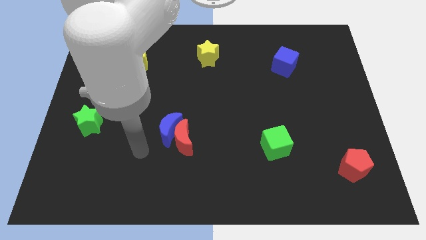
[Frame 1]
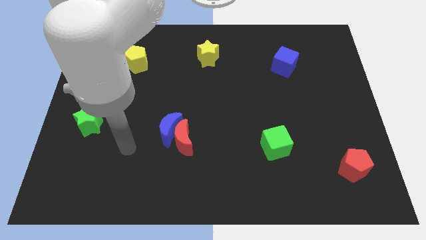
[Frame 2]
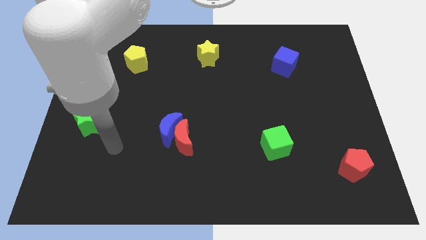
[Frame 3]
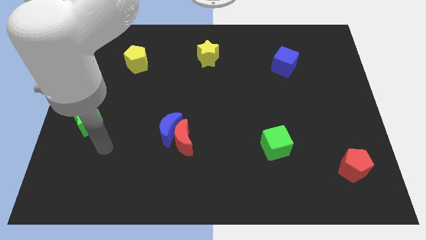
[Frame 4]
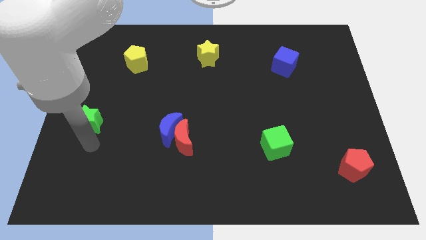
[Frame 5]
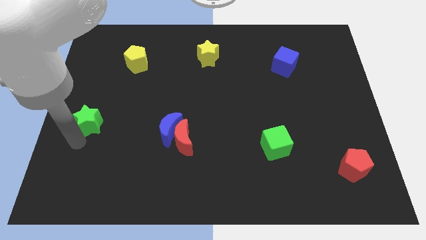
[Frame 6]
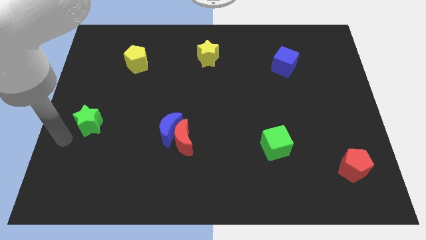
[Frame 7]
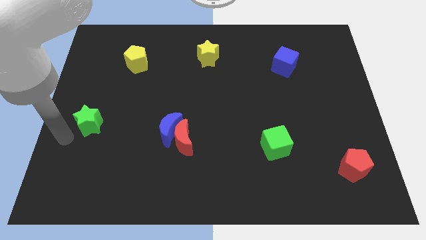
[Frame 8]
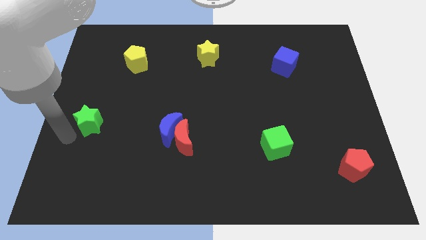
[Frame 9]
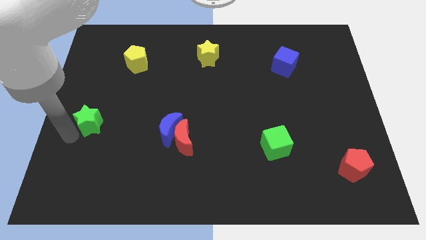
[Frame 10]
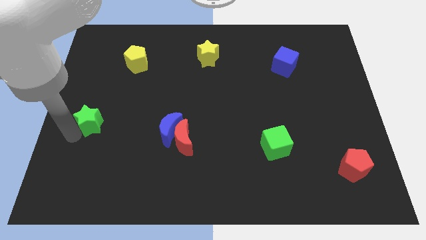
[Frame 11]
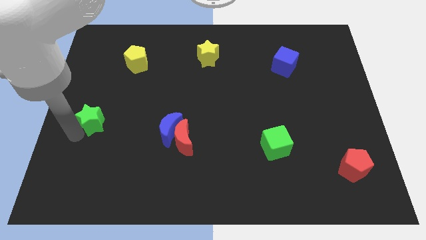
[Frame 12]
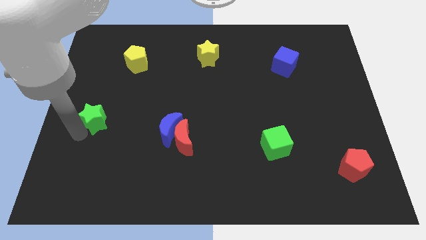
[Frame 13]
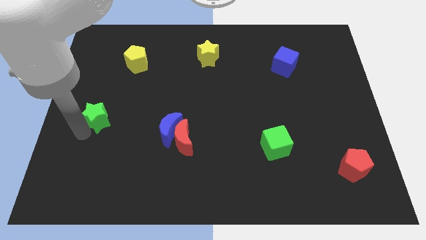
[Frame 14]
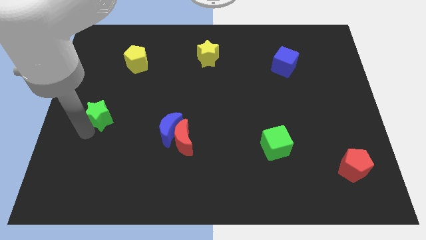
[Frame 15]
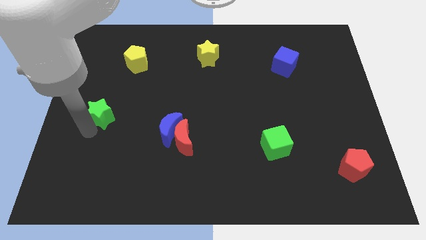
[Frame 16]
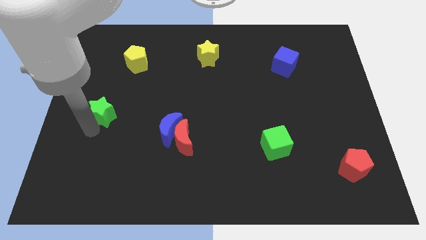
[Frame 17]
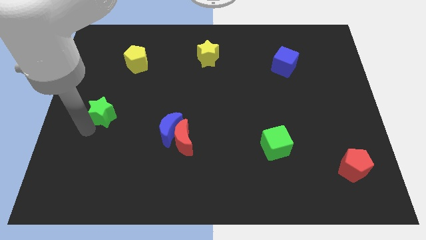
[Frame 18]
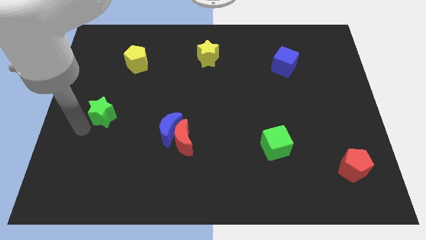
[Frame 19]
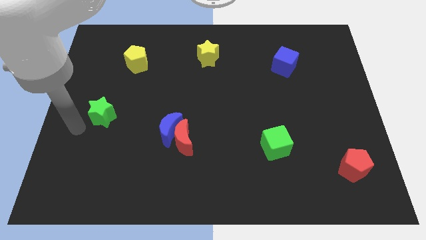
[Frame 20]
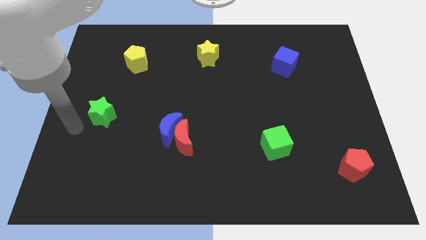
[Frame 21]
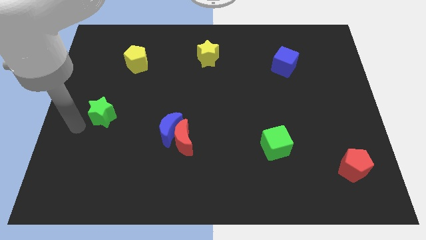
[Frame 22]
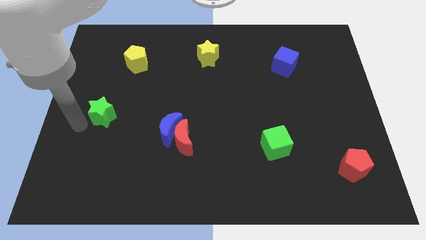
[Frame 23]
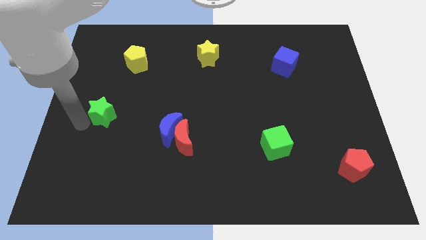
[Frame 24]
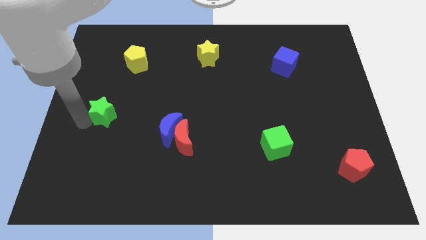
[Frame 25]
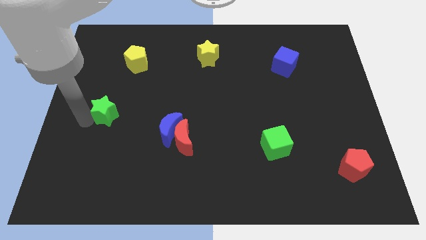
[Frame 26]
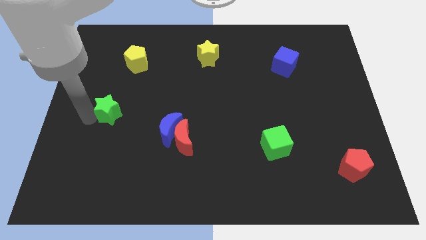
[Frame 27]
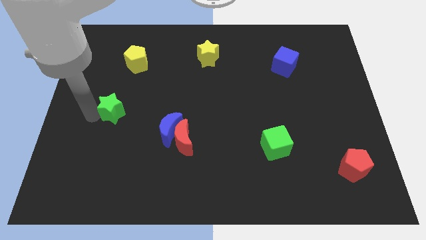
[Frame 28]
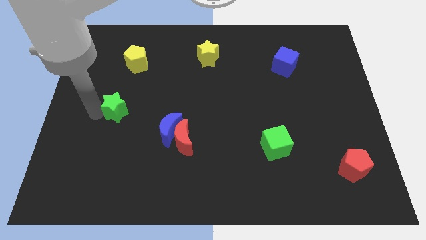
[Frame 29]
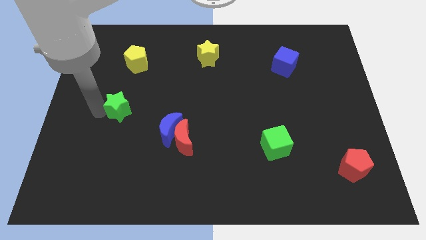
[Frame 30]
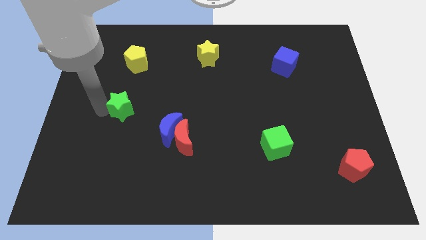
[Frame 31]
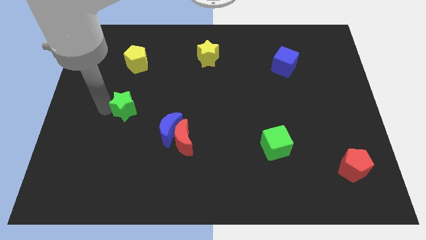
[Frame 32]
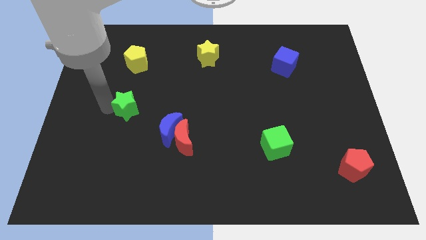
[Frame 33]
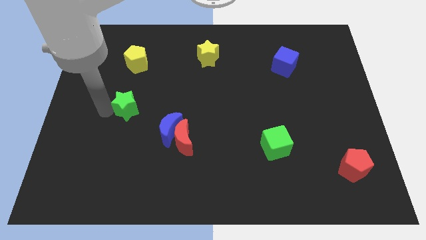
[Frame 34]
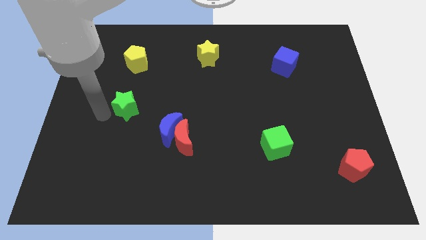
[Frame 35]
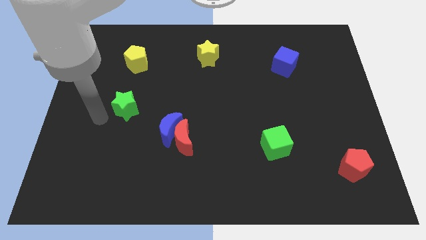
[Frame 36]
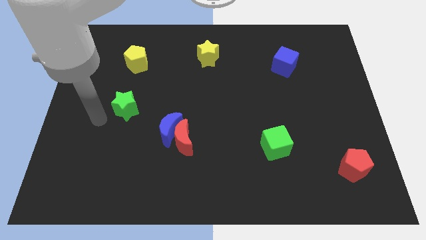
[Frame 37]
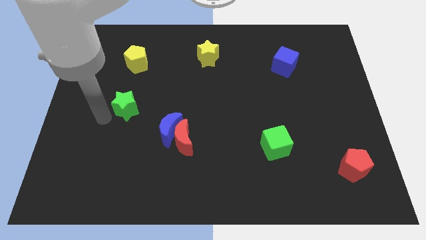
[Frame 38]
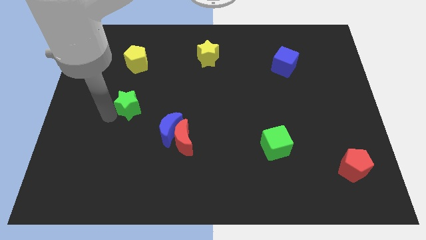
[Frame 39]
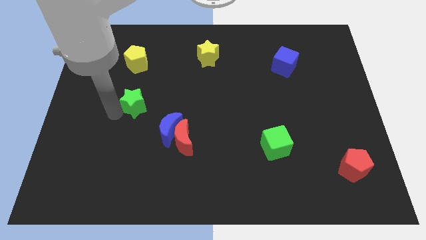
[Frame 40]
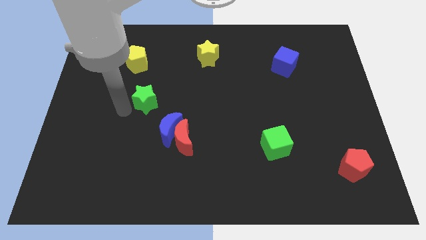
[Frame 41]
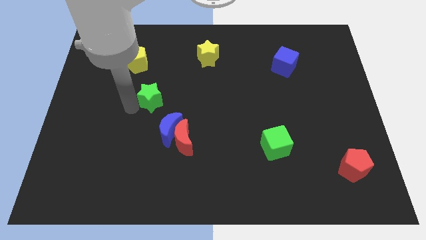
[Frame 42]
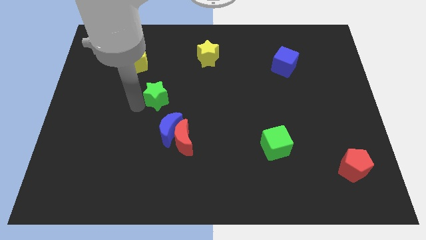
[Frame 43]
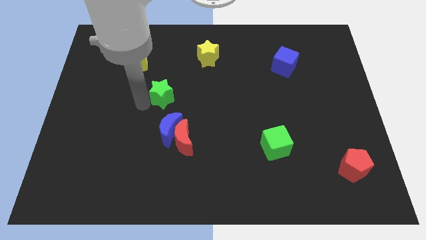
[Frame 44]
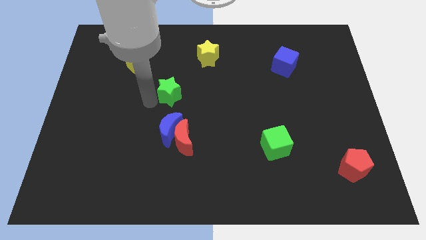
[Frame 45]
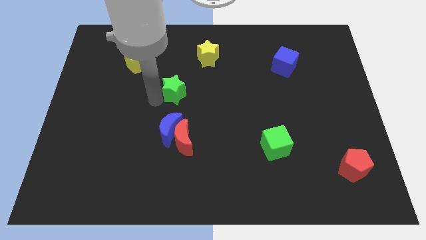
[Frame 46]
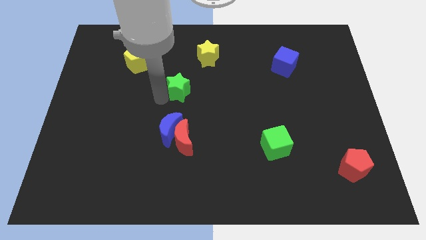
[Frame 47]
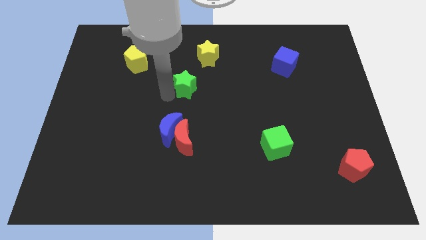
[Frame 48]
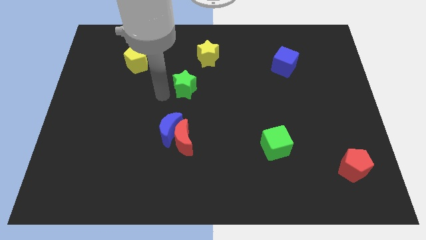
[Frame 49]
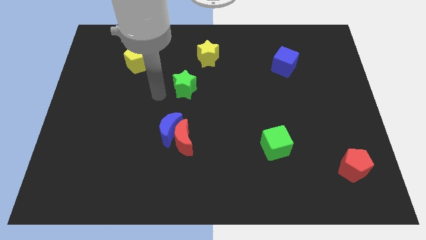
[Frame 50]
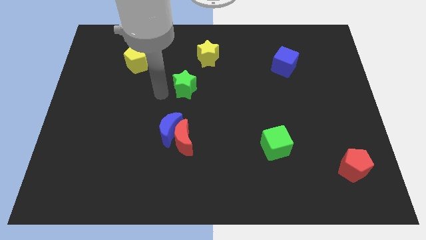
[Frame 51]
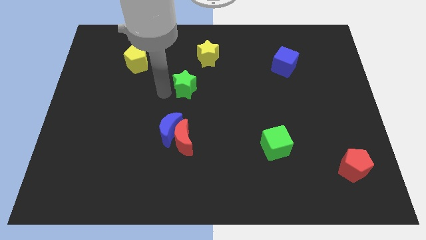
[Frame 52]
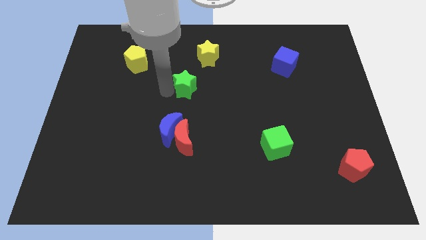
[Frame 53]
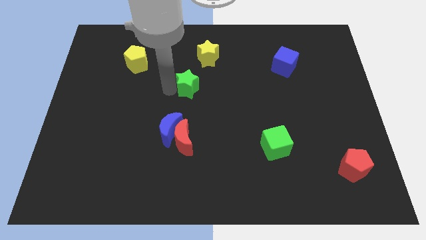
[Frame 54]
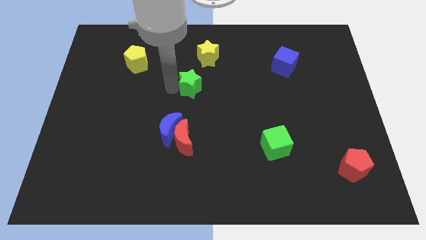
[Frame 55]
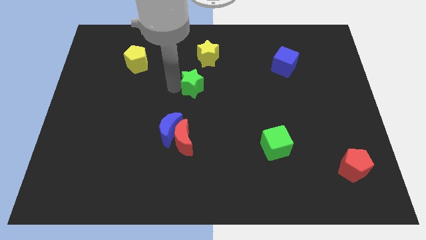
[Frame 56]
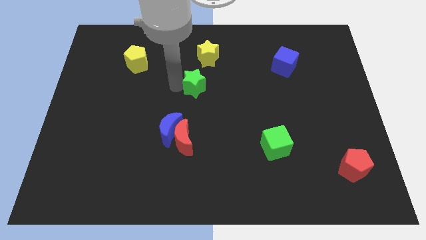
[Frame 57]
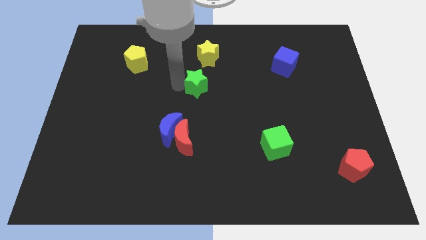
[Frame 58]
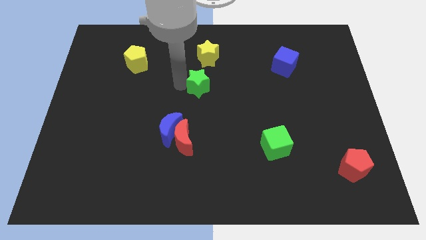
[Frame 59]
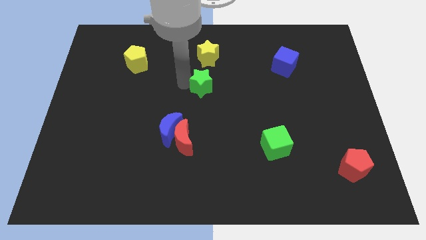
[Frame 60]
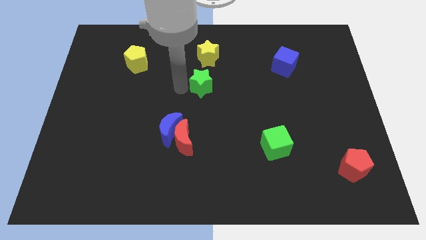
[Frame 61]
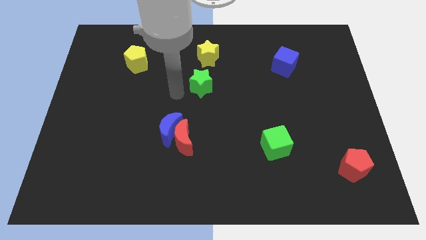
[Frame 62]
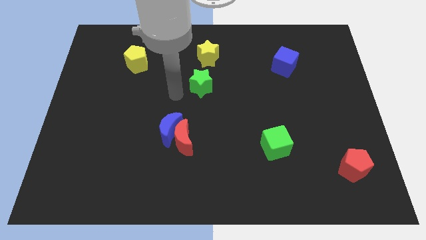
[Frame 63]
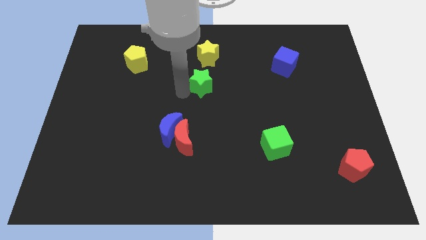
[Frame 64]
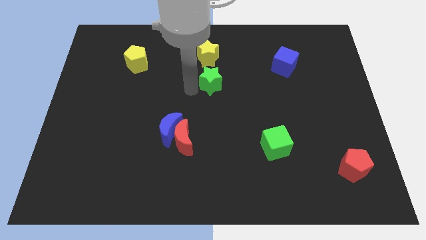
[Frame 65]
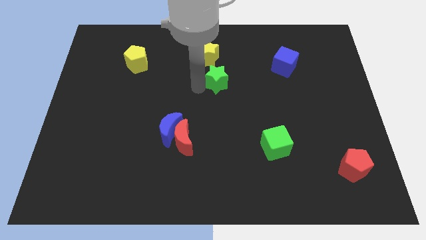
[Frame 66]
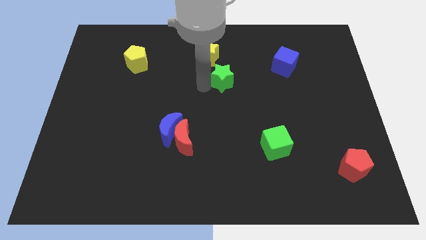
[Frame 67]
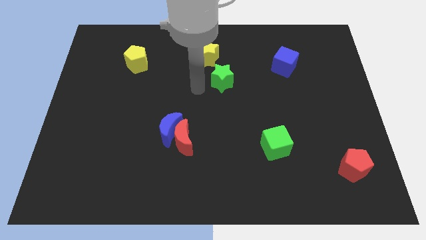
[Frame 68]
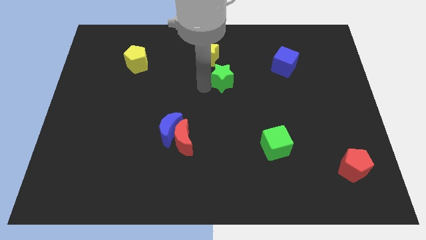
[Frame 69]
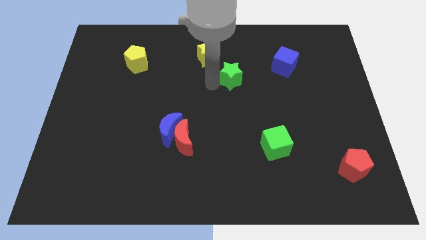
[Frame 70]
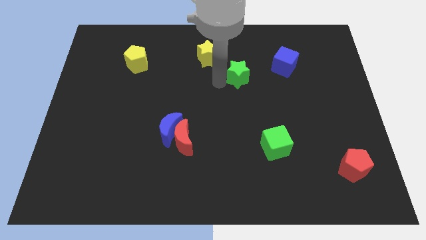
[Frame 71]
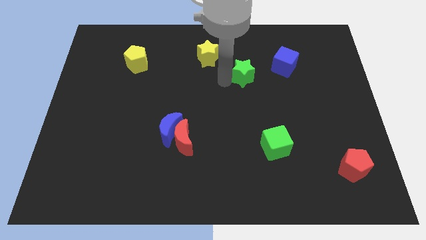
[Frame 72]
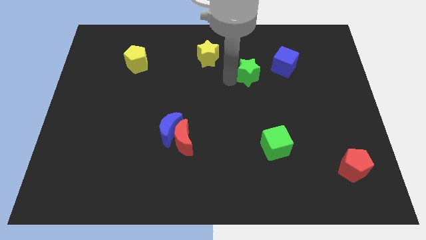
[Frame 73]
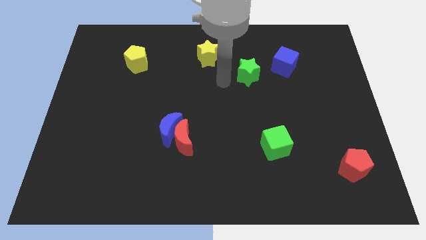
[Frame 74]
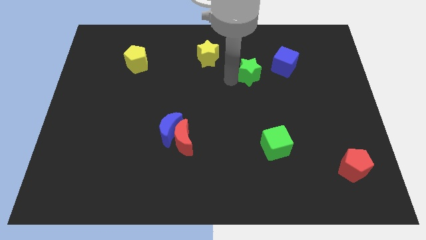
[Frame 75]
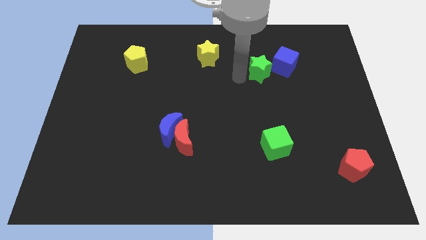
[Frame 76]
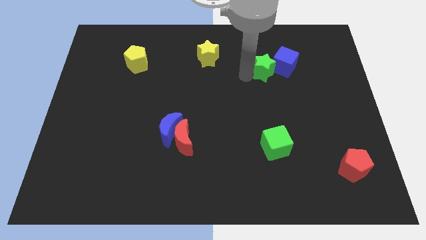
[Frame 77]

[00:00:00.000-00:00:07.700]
put the green star to the blue cube
